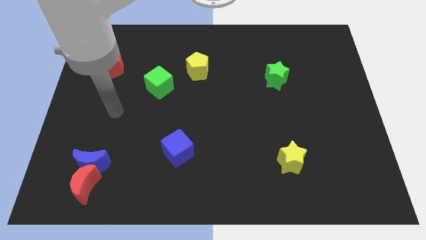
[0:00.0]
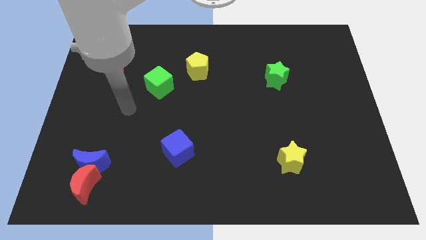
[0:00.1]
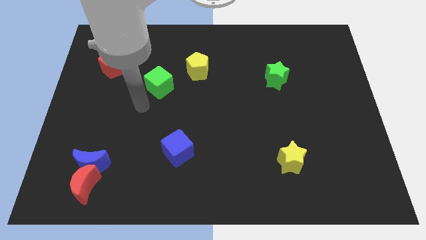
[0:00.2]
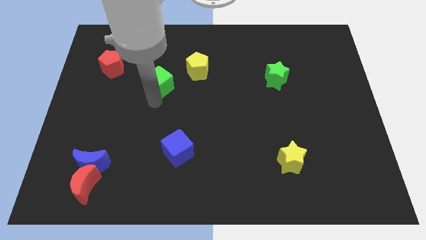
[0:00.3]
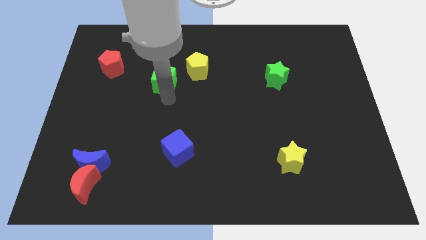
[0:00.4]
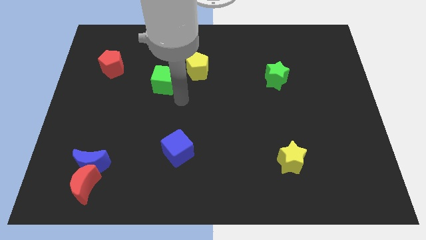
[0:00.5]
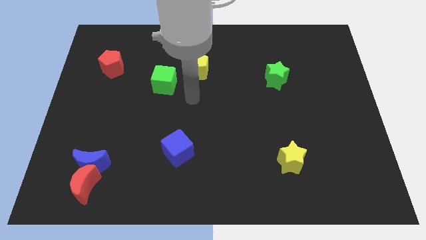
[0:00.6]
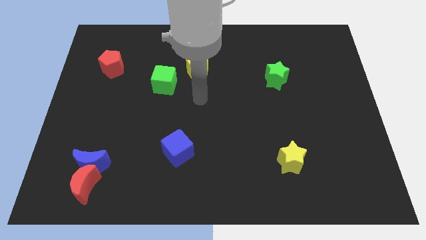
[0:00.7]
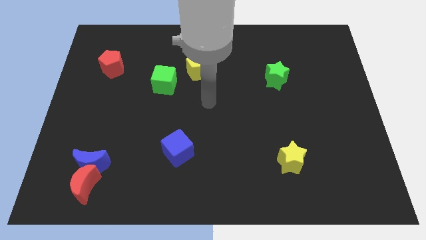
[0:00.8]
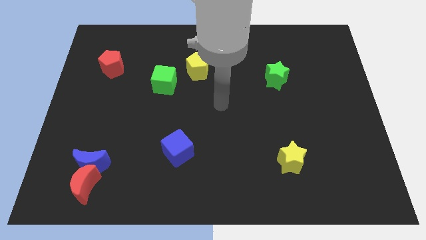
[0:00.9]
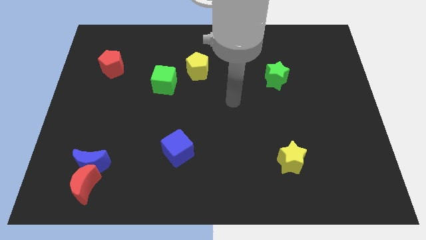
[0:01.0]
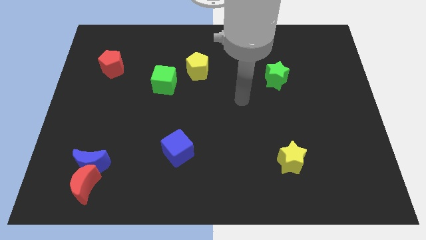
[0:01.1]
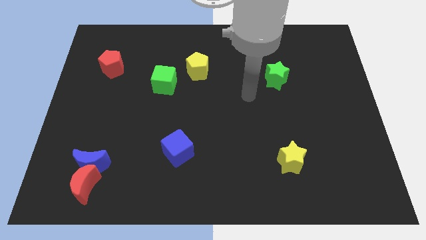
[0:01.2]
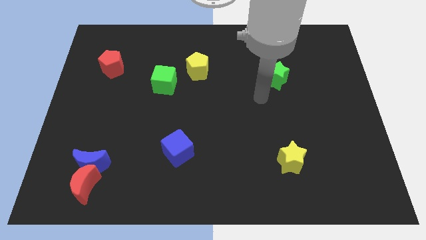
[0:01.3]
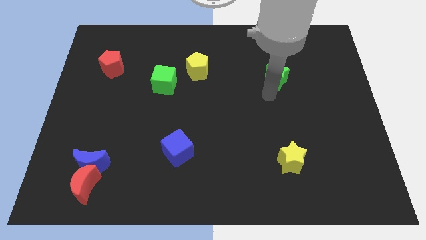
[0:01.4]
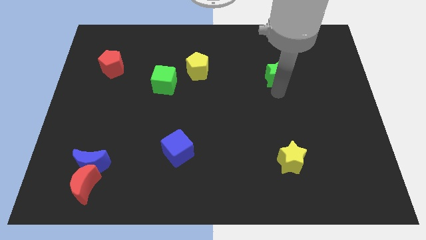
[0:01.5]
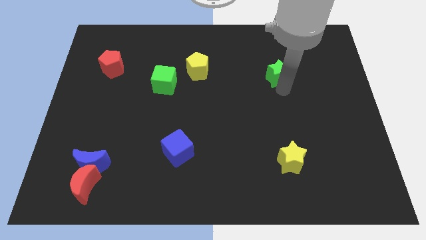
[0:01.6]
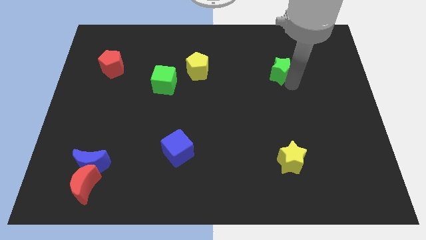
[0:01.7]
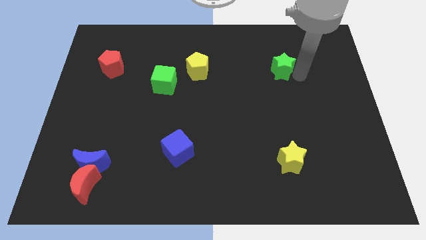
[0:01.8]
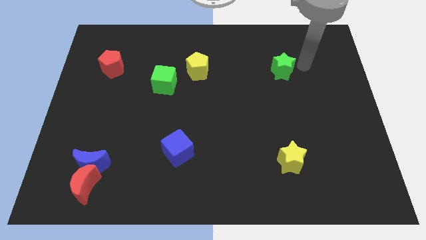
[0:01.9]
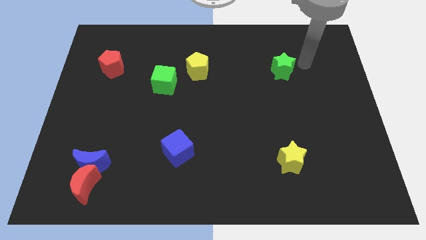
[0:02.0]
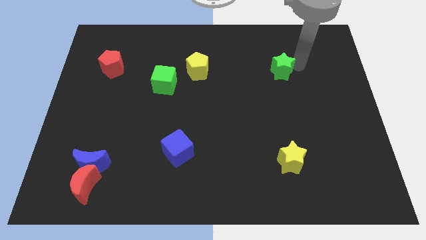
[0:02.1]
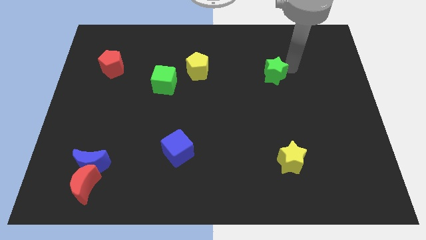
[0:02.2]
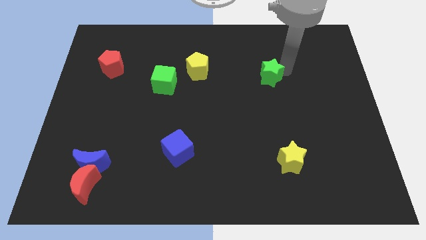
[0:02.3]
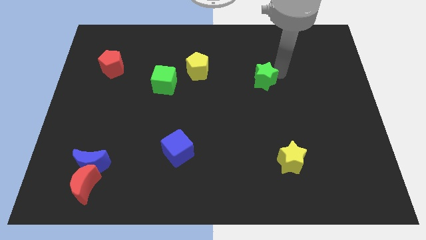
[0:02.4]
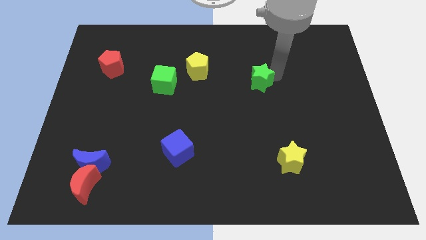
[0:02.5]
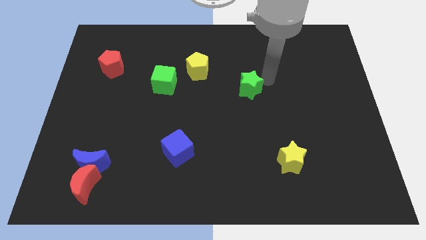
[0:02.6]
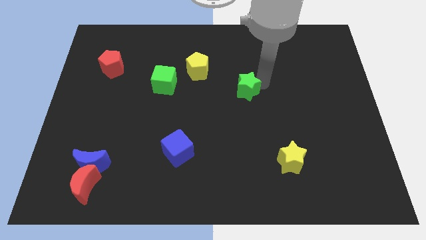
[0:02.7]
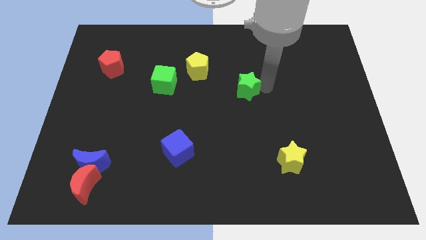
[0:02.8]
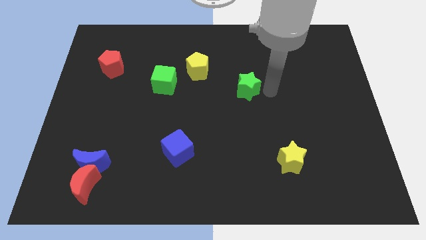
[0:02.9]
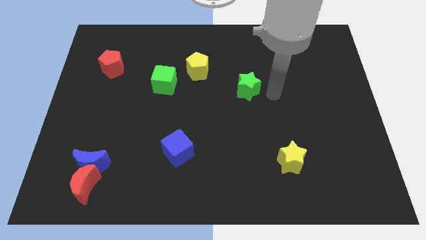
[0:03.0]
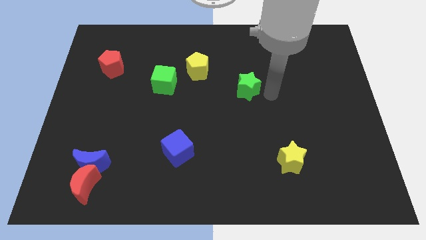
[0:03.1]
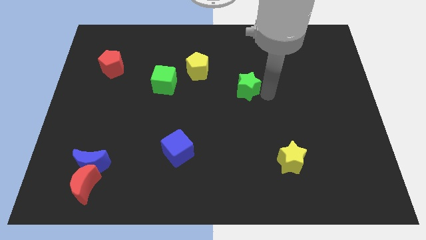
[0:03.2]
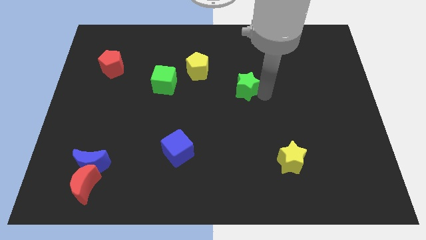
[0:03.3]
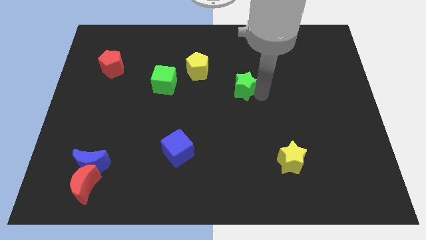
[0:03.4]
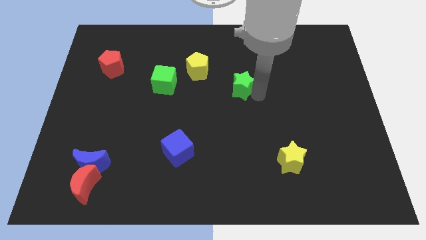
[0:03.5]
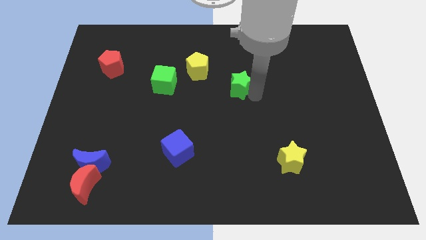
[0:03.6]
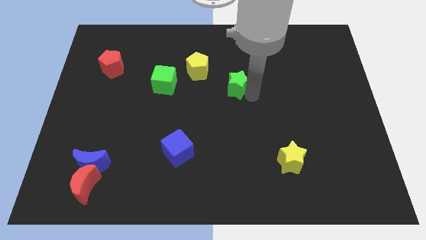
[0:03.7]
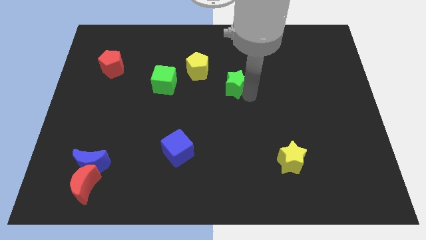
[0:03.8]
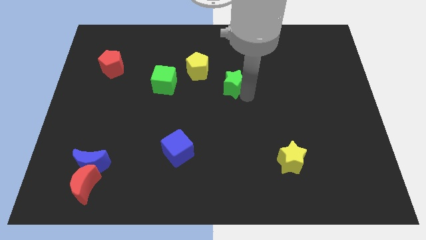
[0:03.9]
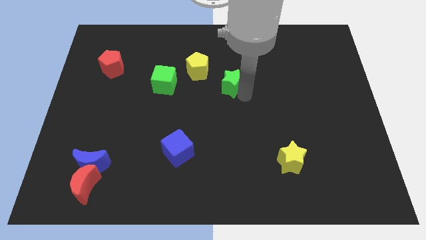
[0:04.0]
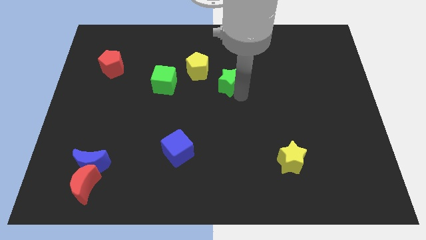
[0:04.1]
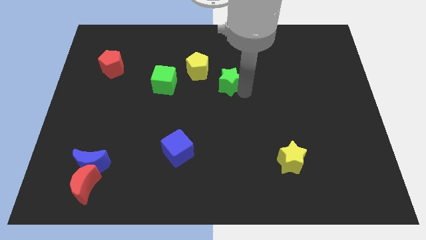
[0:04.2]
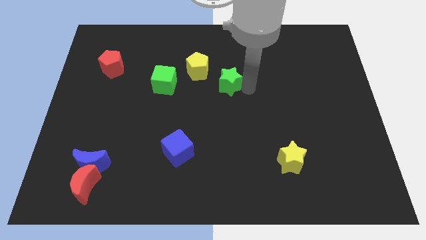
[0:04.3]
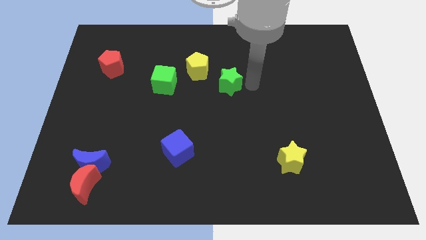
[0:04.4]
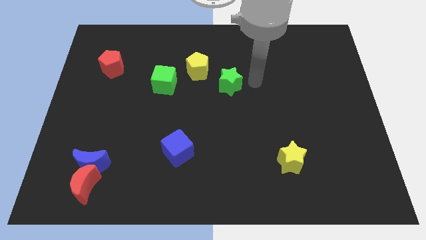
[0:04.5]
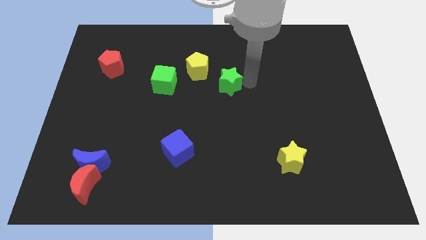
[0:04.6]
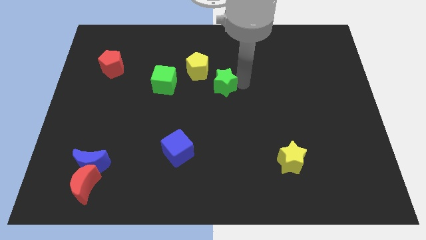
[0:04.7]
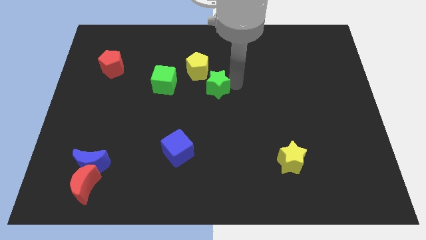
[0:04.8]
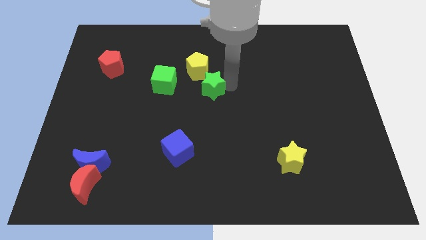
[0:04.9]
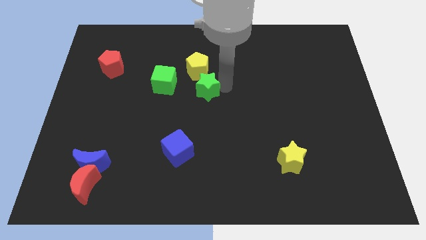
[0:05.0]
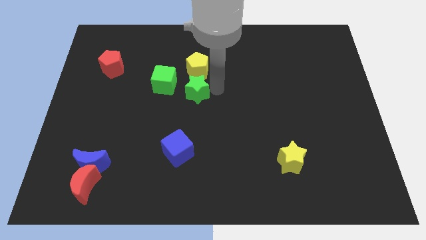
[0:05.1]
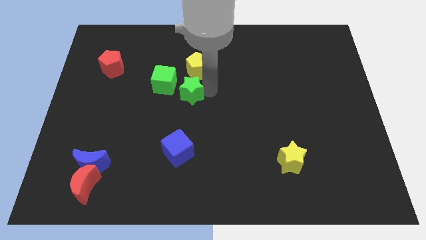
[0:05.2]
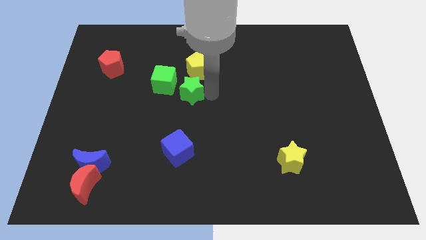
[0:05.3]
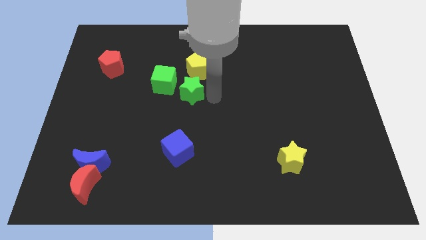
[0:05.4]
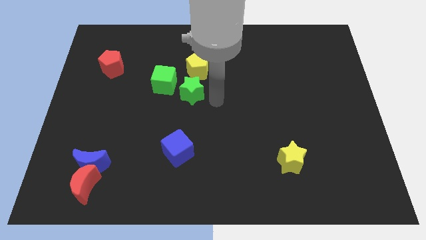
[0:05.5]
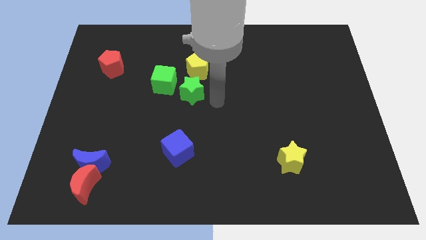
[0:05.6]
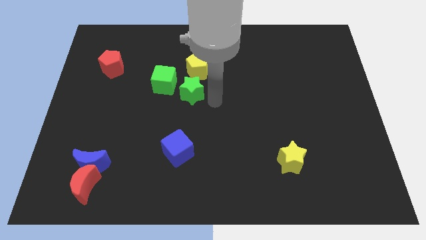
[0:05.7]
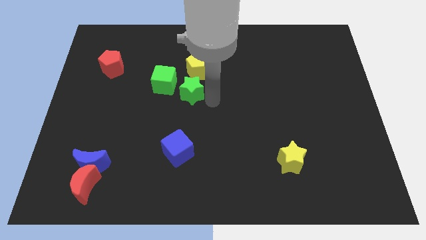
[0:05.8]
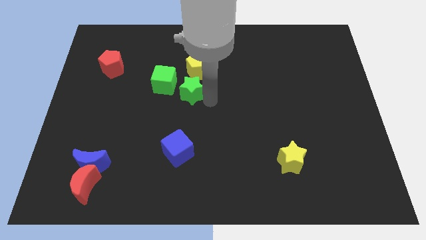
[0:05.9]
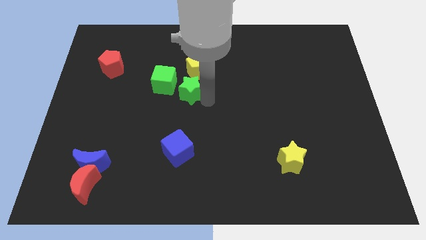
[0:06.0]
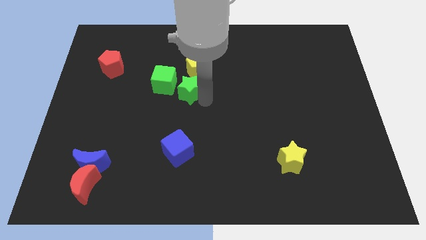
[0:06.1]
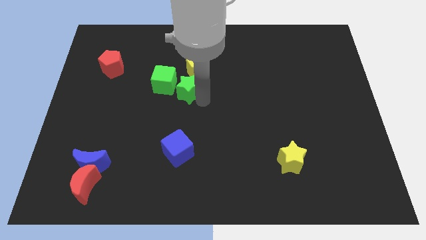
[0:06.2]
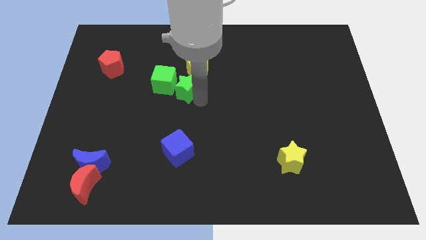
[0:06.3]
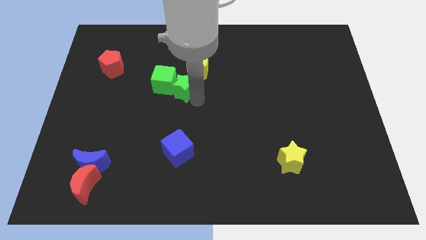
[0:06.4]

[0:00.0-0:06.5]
slide the green star next to the green cube

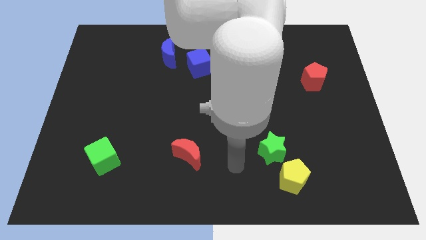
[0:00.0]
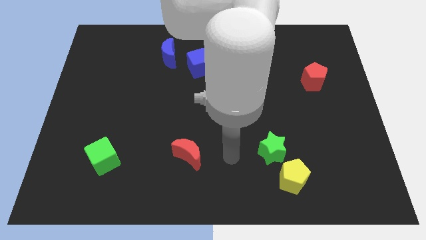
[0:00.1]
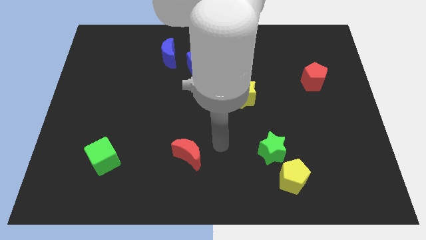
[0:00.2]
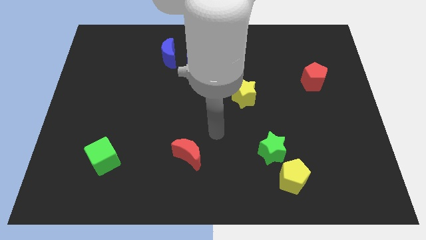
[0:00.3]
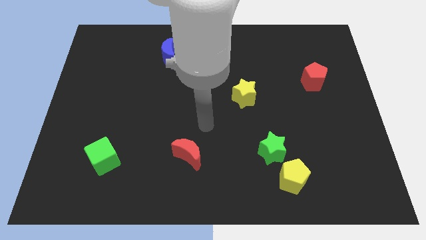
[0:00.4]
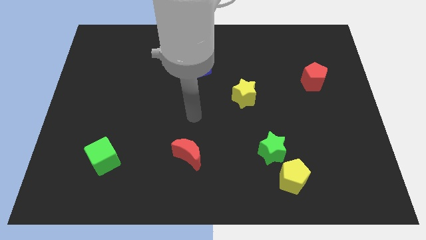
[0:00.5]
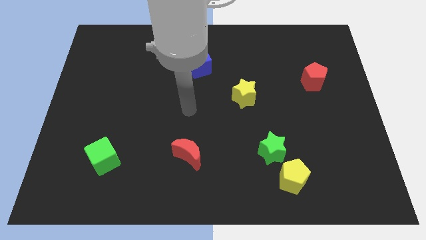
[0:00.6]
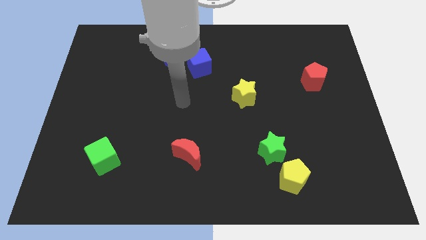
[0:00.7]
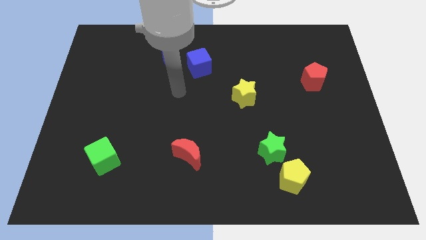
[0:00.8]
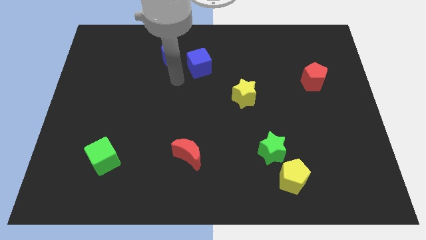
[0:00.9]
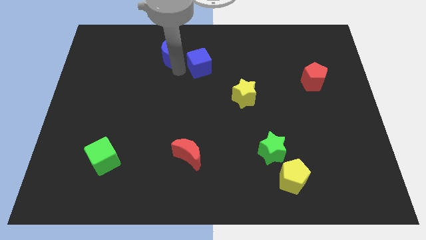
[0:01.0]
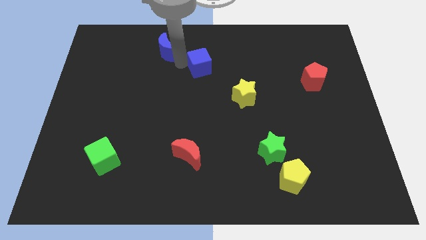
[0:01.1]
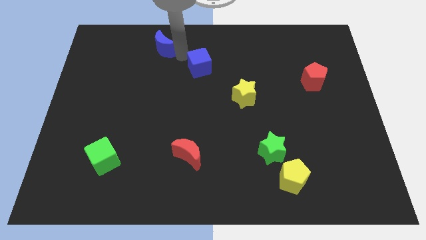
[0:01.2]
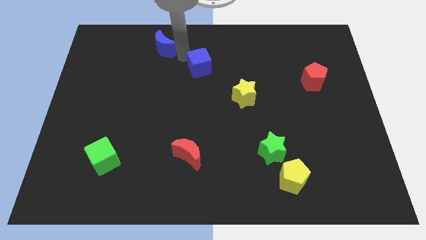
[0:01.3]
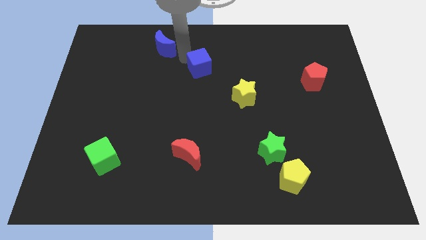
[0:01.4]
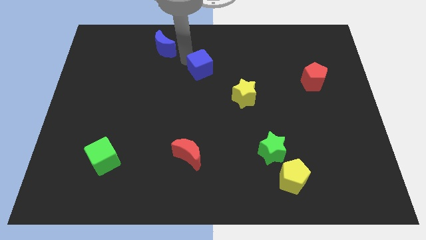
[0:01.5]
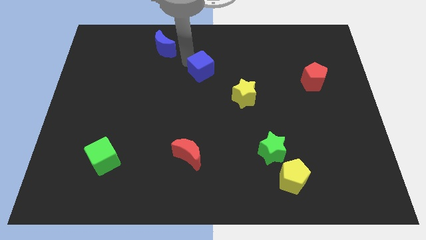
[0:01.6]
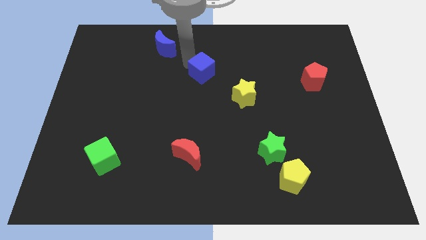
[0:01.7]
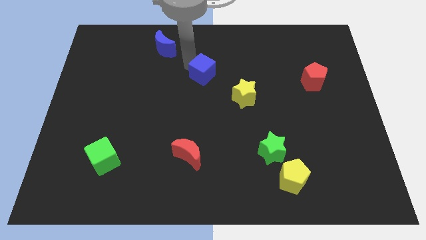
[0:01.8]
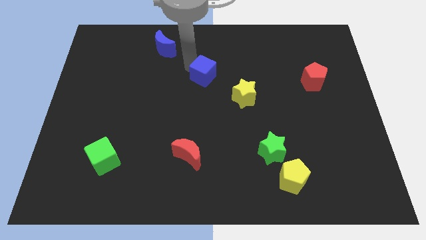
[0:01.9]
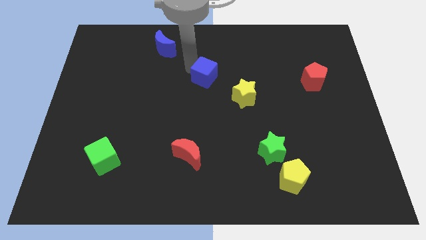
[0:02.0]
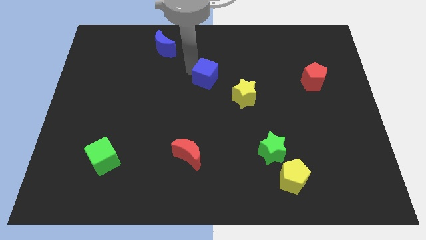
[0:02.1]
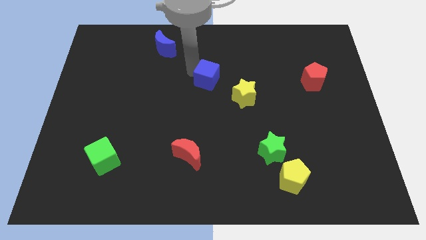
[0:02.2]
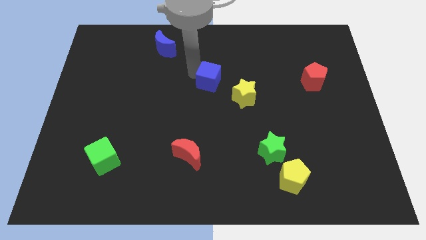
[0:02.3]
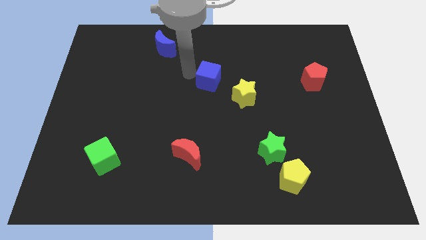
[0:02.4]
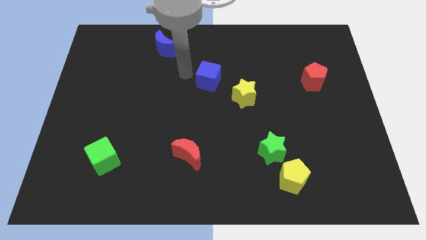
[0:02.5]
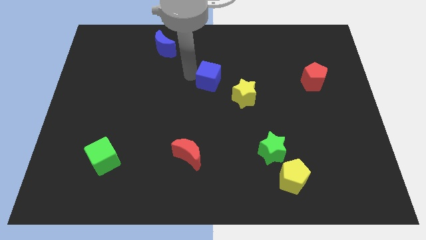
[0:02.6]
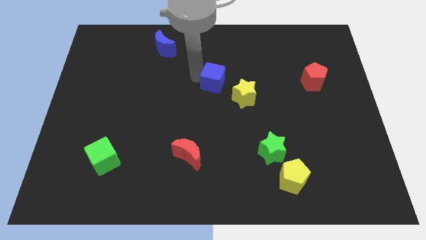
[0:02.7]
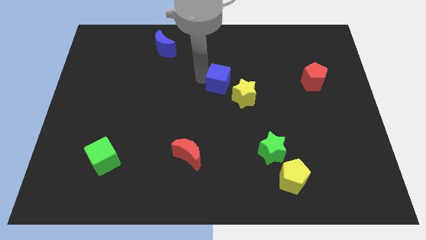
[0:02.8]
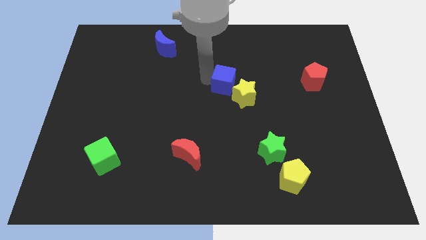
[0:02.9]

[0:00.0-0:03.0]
push the blue cube next to the yellow star
